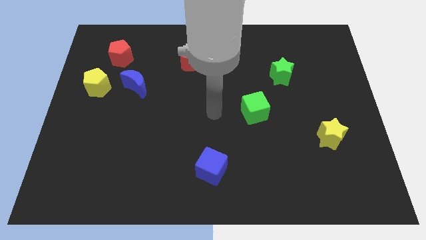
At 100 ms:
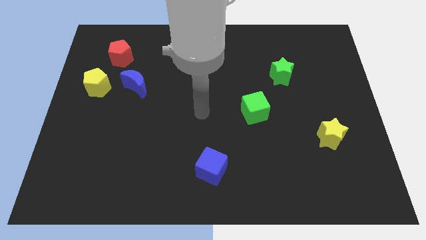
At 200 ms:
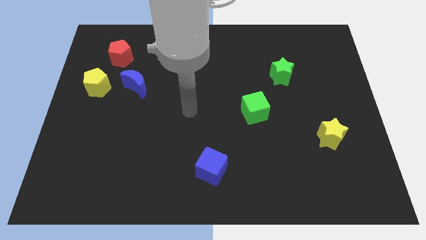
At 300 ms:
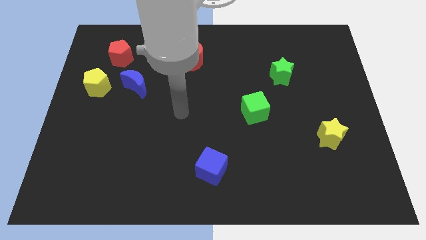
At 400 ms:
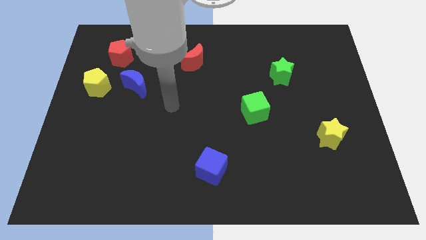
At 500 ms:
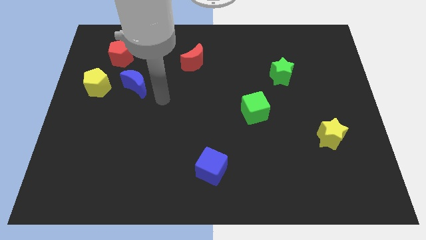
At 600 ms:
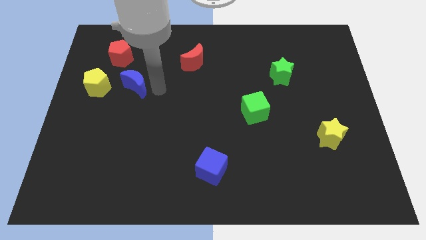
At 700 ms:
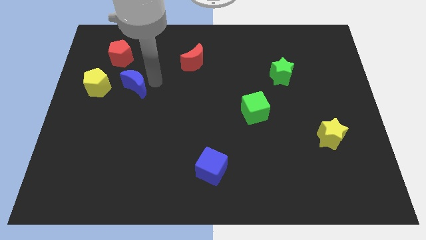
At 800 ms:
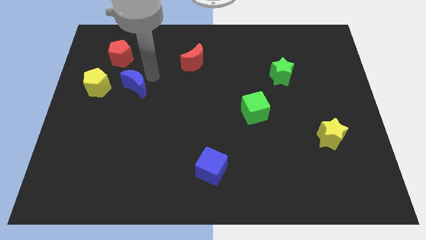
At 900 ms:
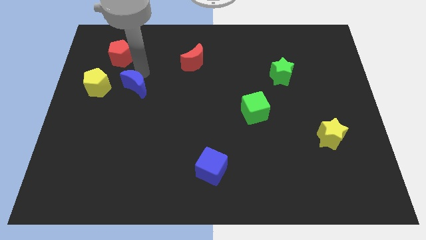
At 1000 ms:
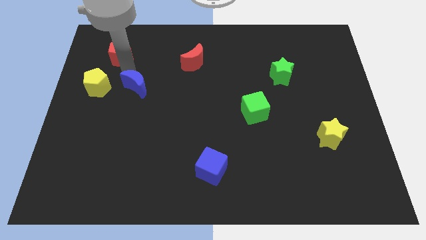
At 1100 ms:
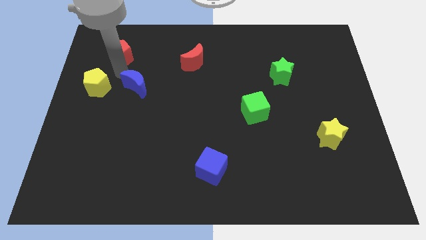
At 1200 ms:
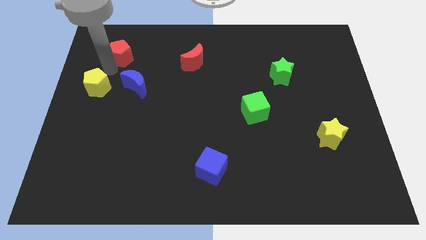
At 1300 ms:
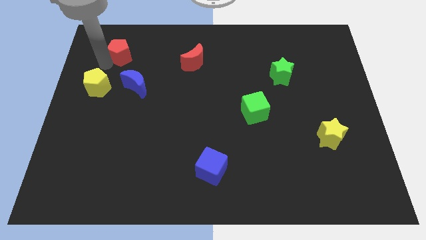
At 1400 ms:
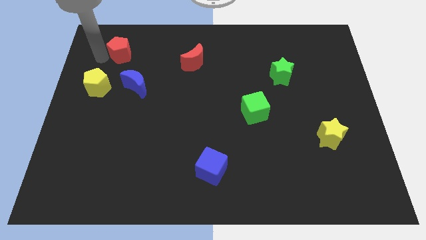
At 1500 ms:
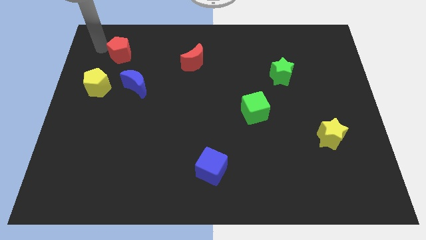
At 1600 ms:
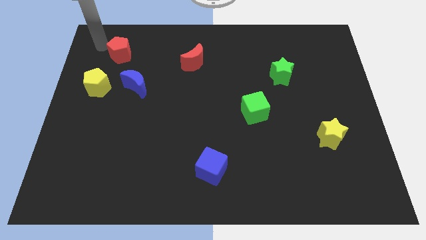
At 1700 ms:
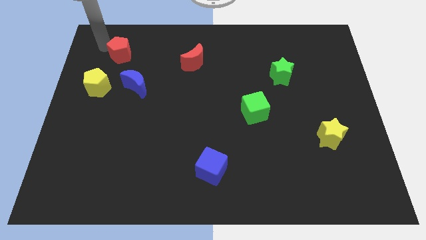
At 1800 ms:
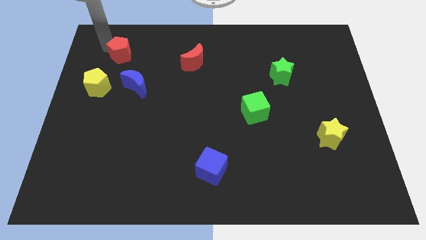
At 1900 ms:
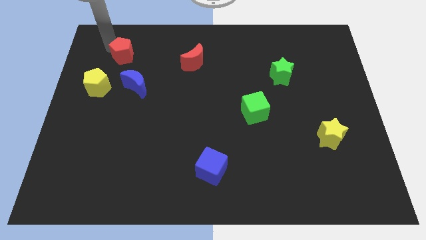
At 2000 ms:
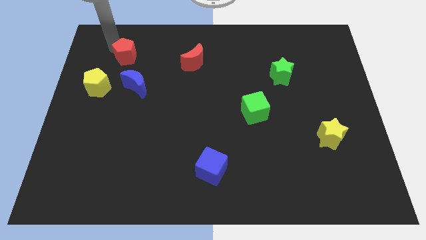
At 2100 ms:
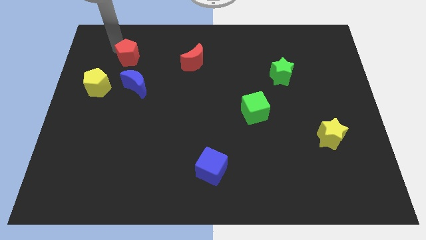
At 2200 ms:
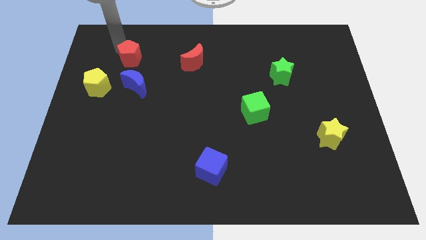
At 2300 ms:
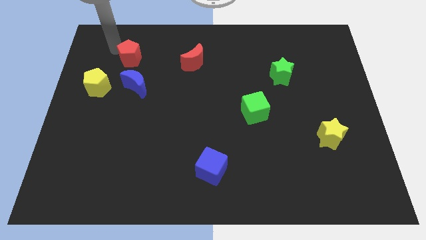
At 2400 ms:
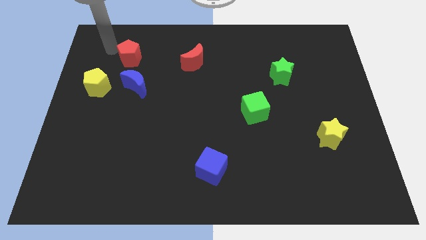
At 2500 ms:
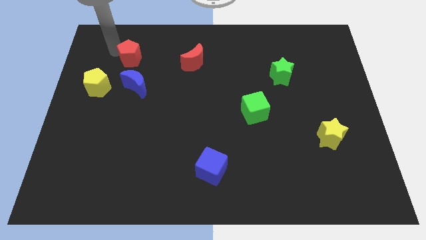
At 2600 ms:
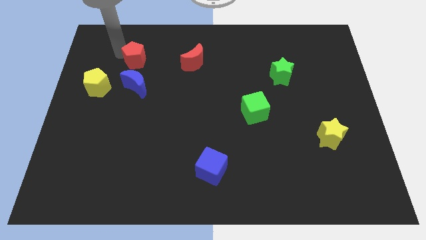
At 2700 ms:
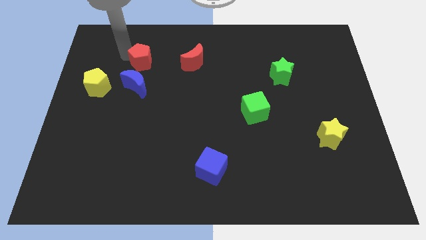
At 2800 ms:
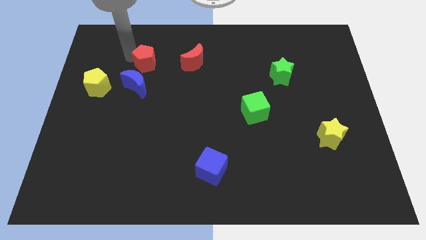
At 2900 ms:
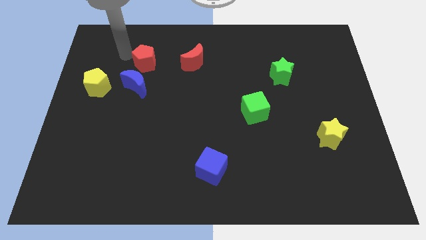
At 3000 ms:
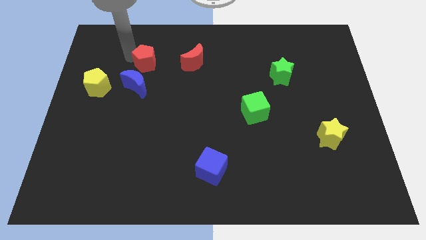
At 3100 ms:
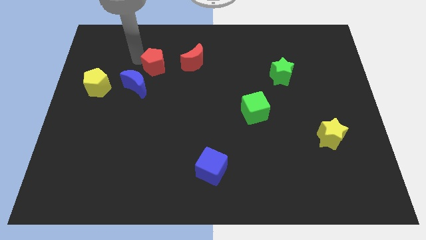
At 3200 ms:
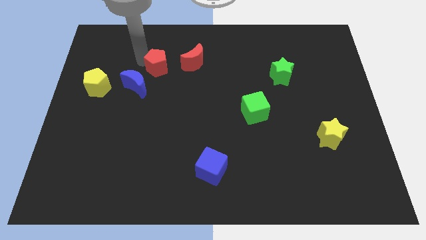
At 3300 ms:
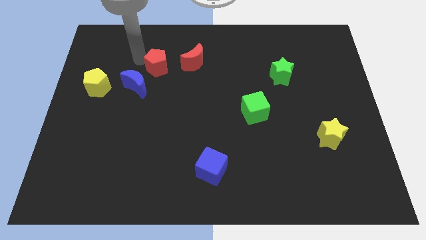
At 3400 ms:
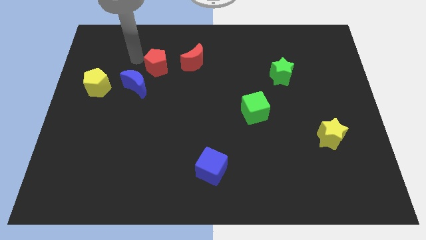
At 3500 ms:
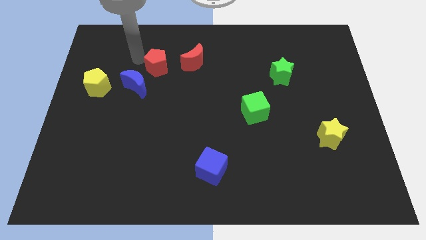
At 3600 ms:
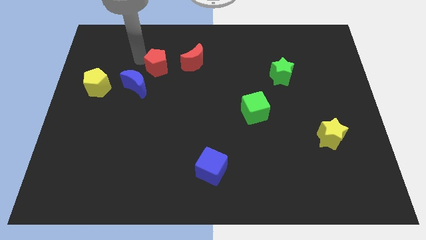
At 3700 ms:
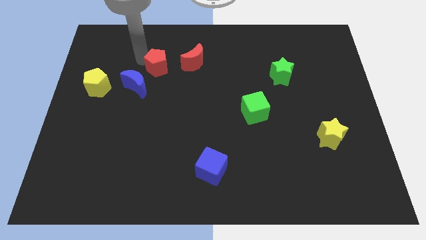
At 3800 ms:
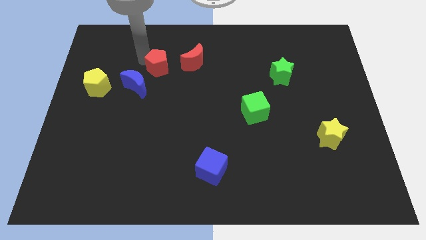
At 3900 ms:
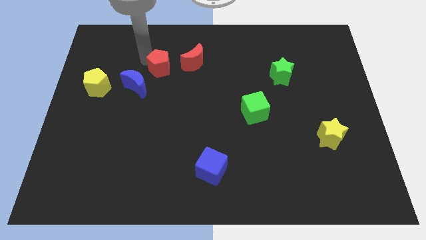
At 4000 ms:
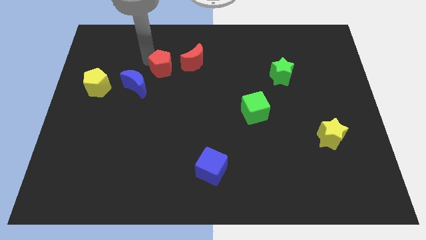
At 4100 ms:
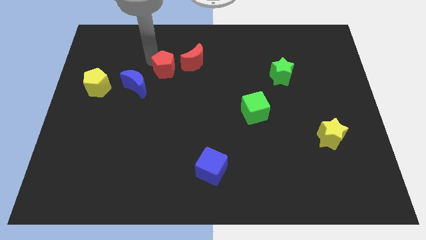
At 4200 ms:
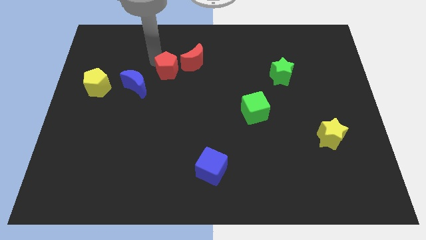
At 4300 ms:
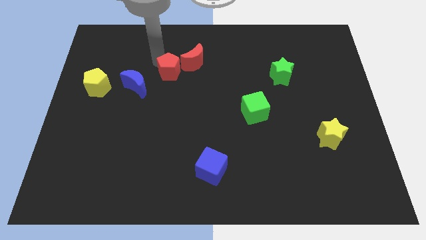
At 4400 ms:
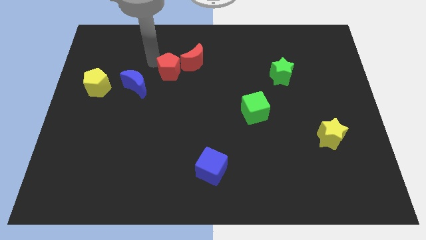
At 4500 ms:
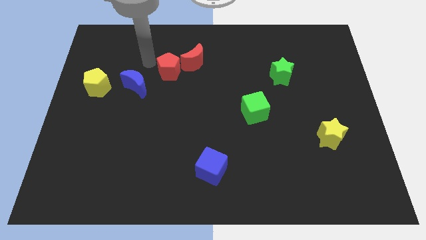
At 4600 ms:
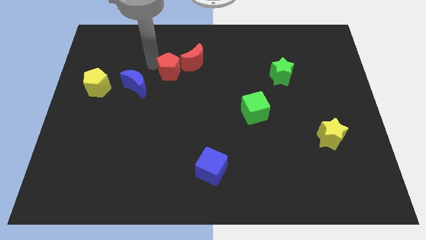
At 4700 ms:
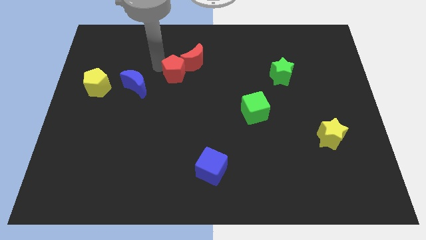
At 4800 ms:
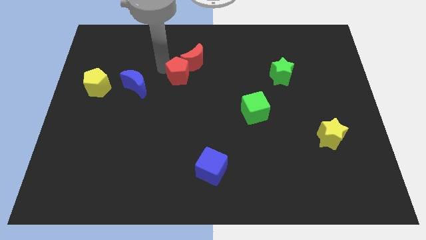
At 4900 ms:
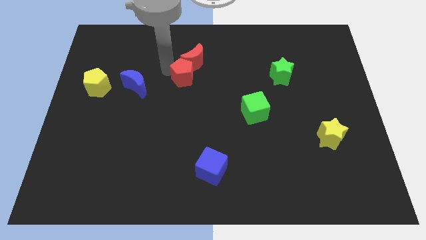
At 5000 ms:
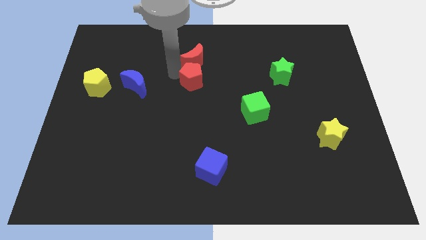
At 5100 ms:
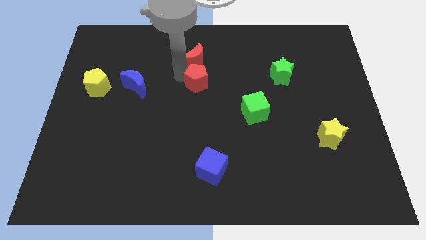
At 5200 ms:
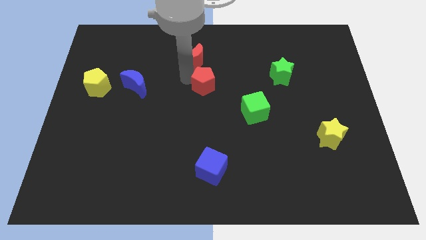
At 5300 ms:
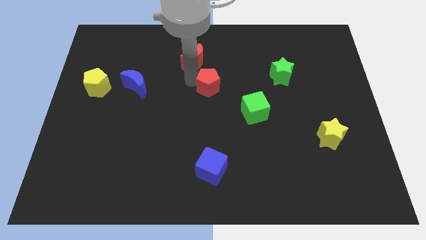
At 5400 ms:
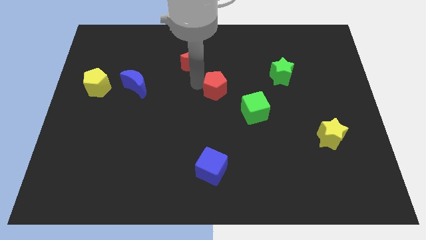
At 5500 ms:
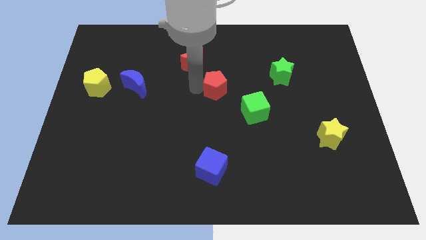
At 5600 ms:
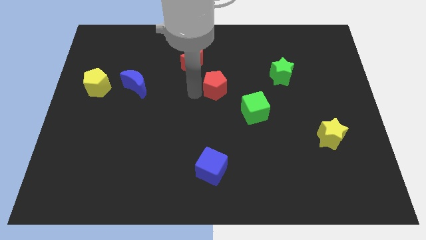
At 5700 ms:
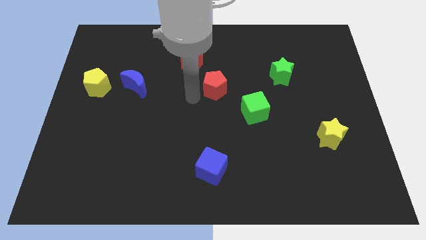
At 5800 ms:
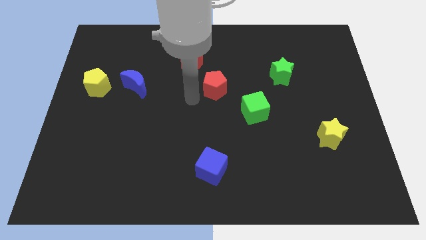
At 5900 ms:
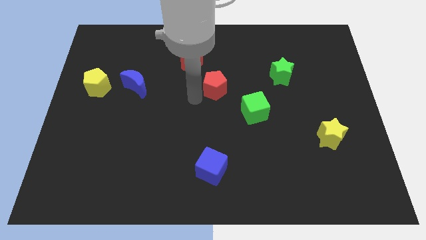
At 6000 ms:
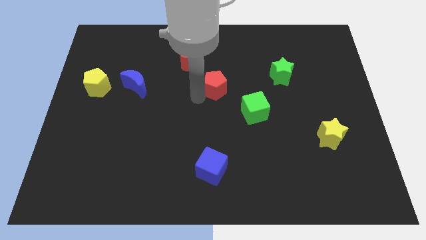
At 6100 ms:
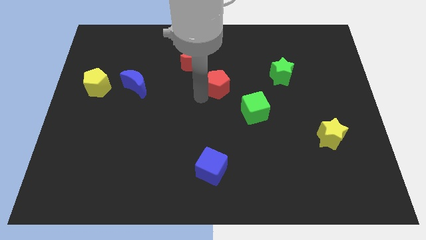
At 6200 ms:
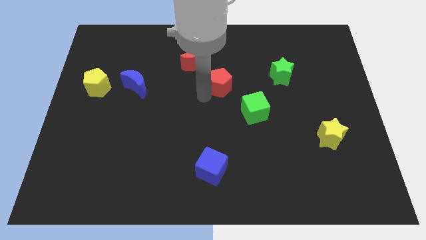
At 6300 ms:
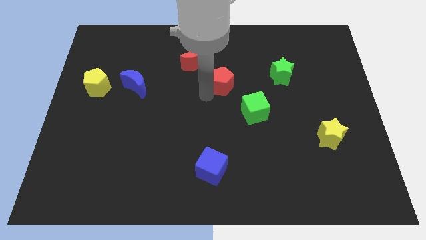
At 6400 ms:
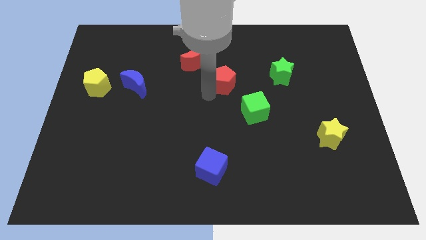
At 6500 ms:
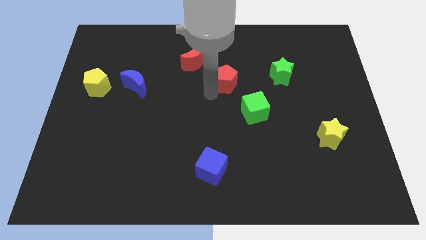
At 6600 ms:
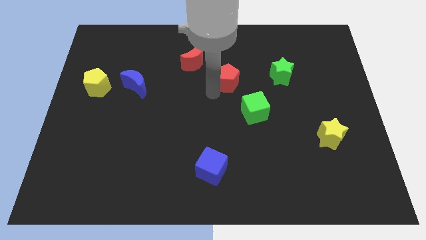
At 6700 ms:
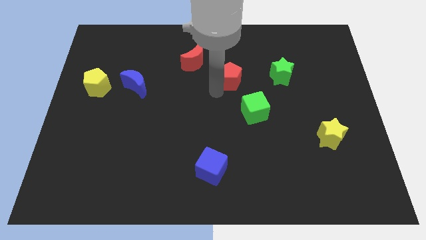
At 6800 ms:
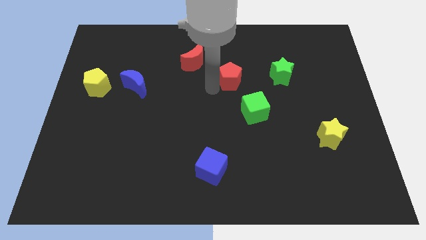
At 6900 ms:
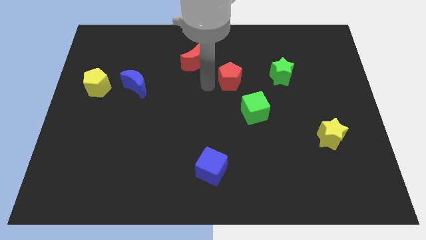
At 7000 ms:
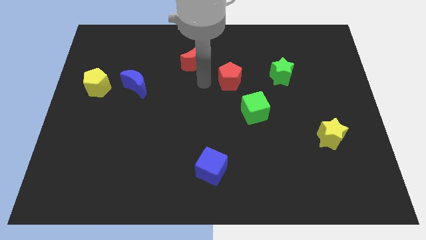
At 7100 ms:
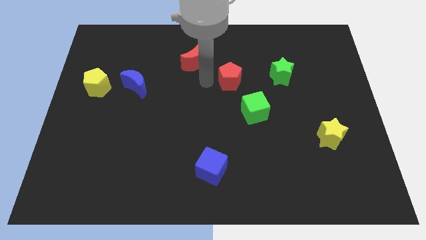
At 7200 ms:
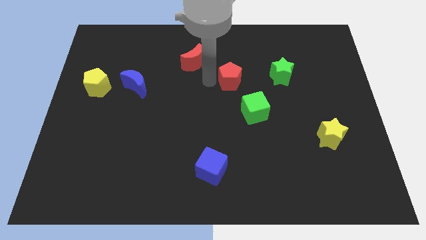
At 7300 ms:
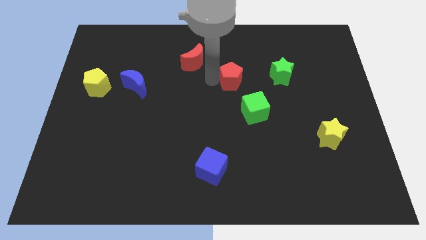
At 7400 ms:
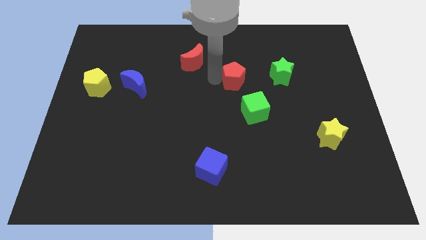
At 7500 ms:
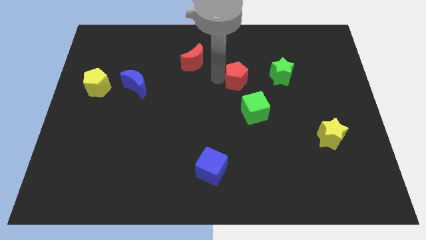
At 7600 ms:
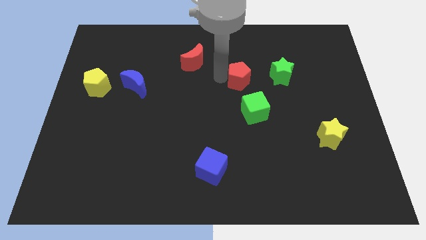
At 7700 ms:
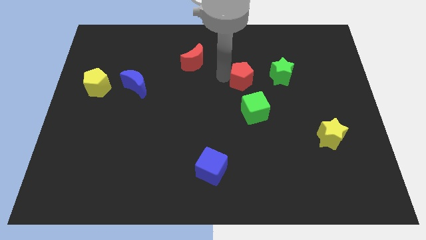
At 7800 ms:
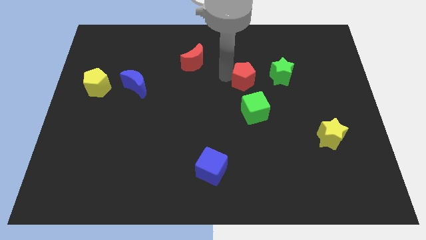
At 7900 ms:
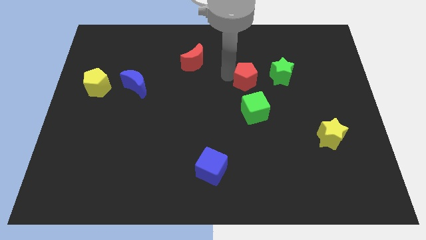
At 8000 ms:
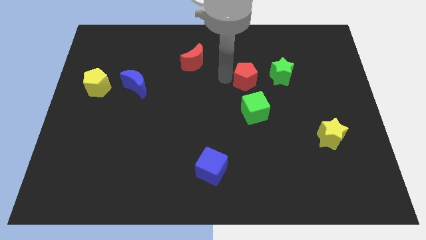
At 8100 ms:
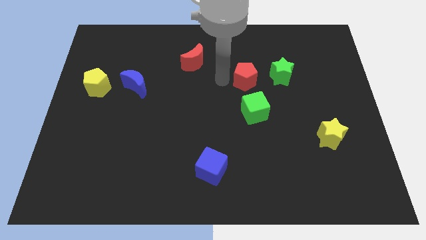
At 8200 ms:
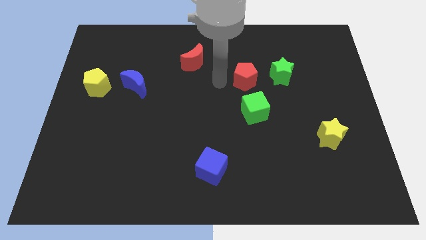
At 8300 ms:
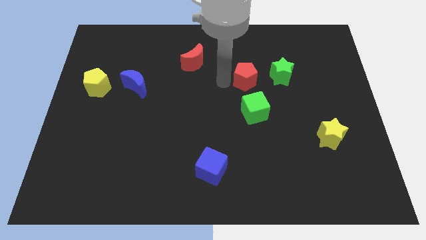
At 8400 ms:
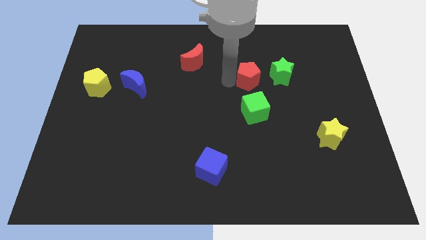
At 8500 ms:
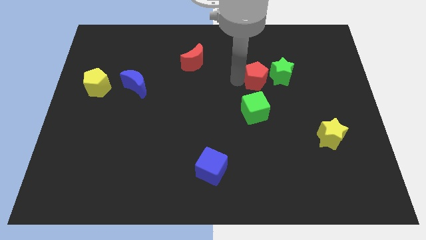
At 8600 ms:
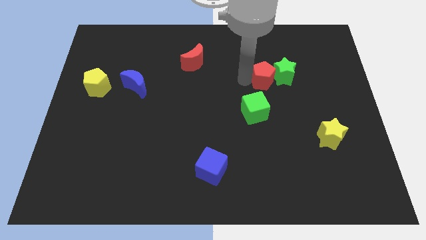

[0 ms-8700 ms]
push the red pentagon to the green star
